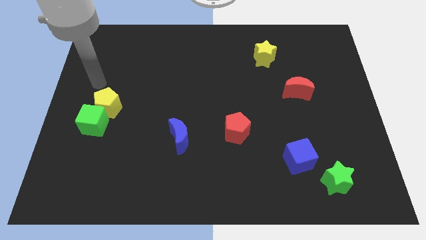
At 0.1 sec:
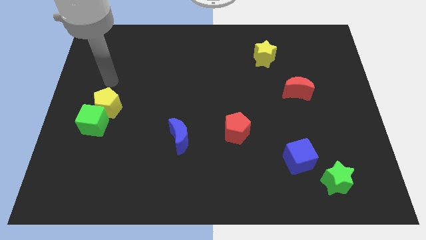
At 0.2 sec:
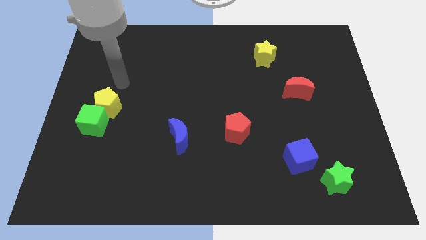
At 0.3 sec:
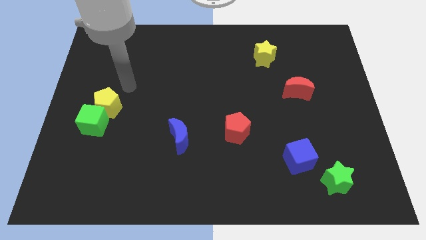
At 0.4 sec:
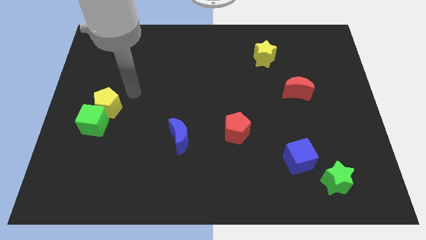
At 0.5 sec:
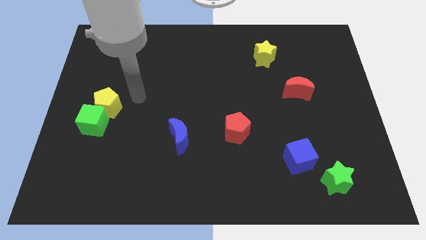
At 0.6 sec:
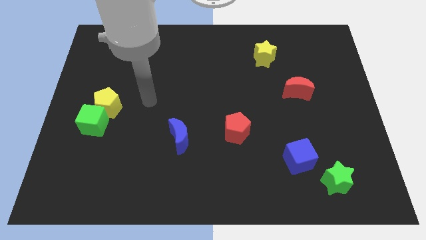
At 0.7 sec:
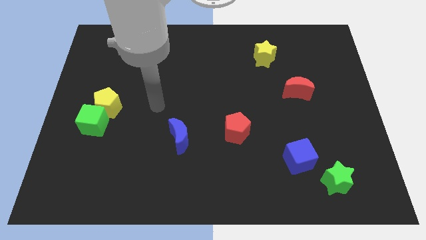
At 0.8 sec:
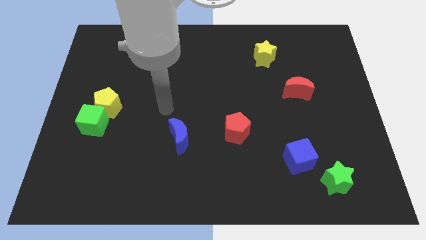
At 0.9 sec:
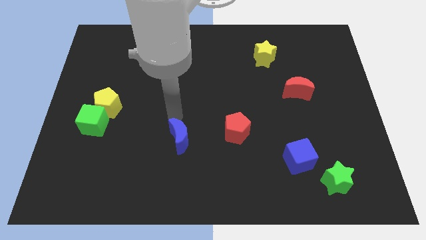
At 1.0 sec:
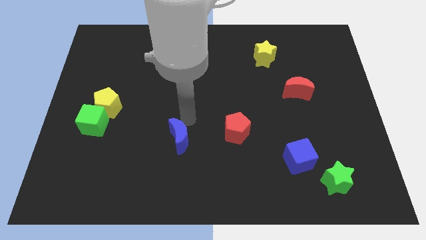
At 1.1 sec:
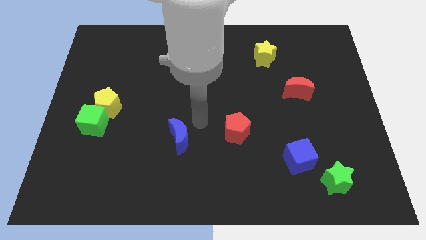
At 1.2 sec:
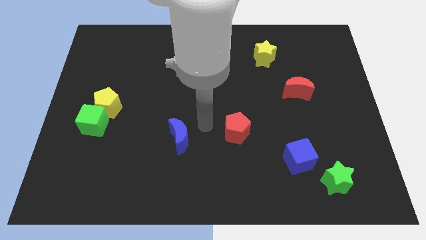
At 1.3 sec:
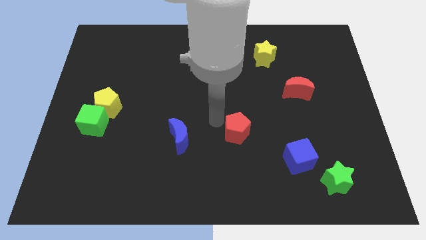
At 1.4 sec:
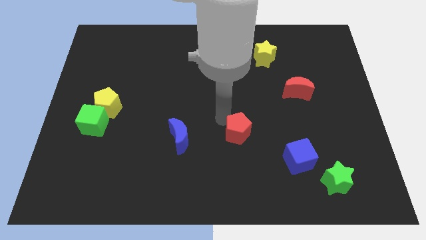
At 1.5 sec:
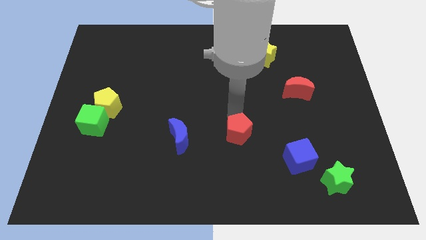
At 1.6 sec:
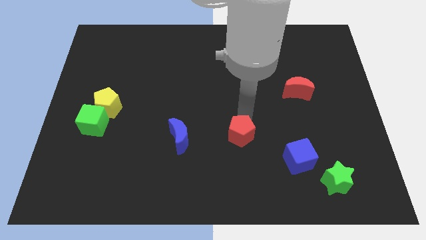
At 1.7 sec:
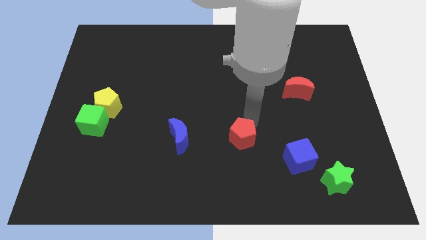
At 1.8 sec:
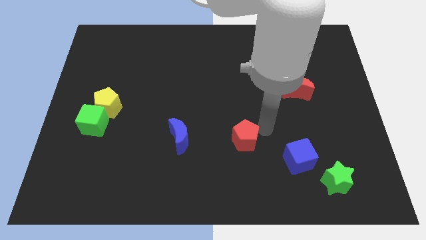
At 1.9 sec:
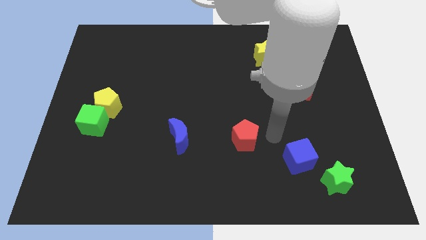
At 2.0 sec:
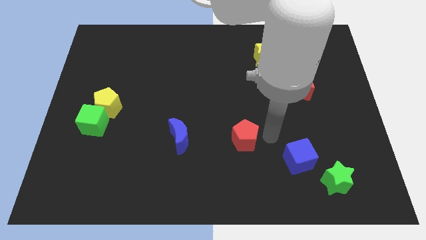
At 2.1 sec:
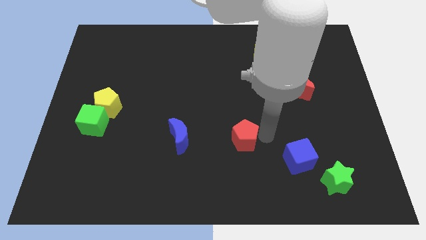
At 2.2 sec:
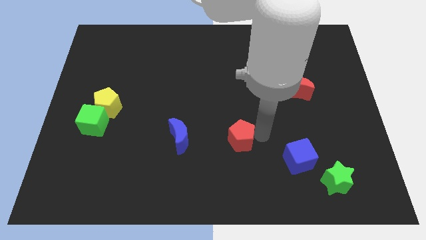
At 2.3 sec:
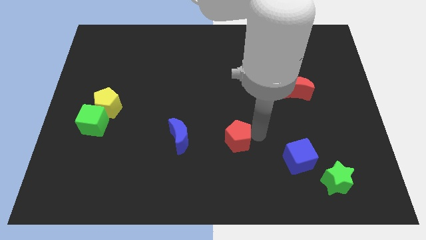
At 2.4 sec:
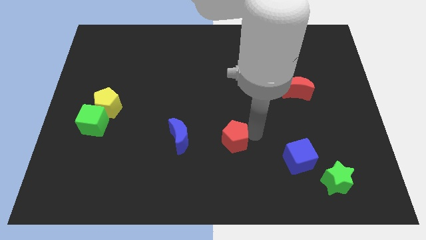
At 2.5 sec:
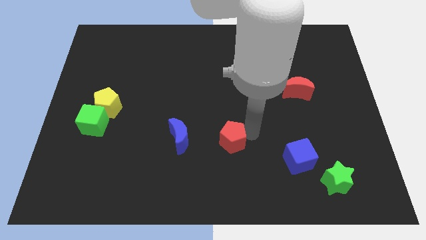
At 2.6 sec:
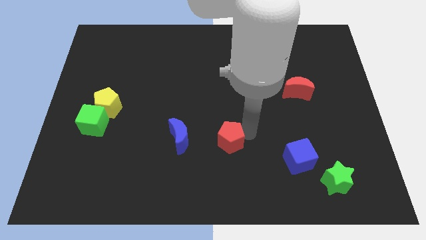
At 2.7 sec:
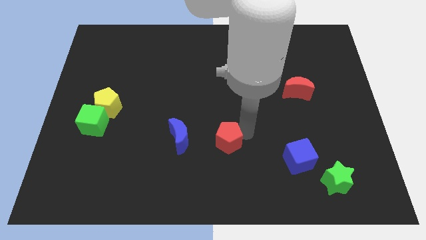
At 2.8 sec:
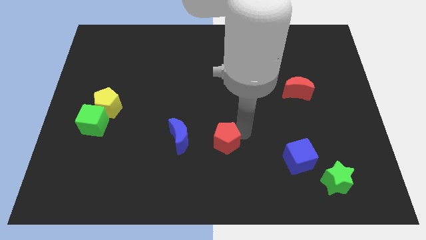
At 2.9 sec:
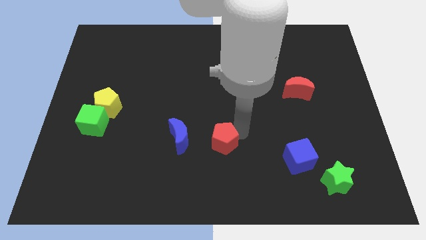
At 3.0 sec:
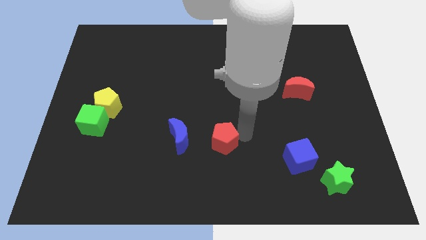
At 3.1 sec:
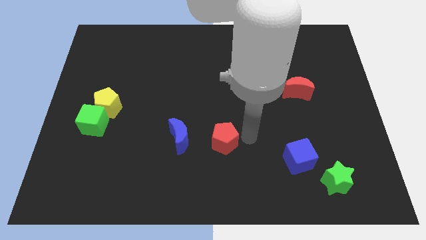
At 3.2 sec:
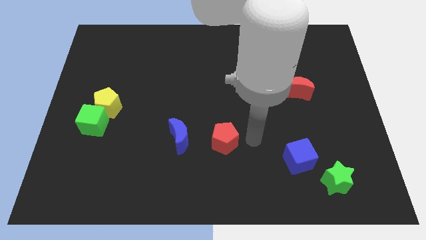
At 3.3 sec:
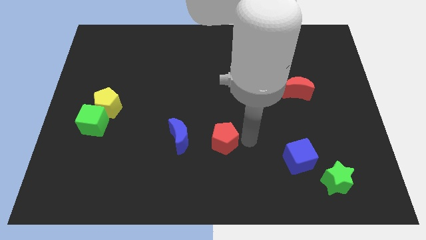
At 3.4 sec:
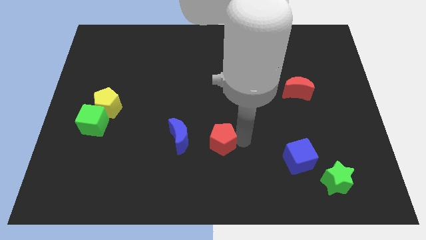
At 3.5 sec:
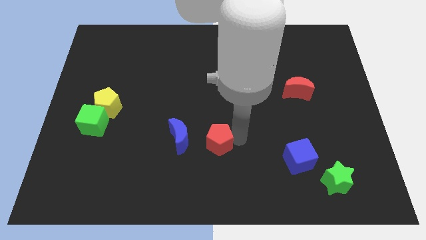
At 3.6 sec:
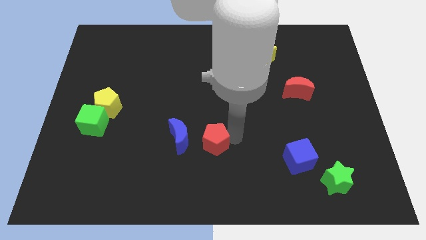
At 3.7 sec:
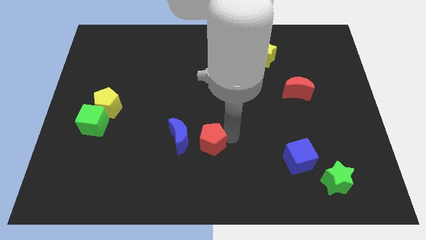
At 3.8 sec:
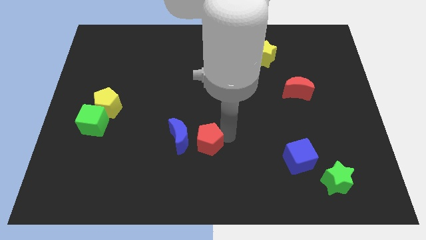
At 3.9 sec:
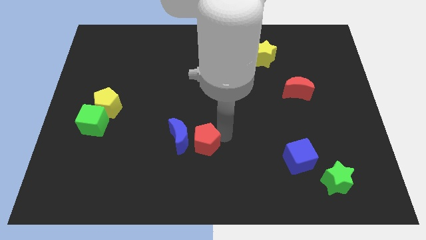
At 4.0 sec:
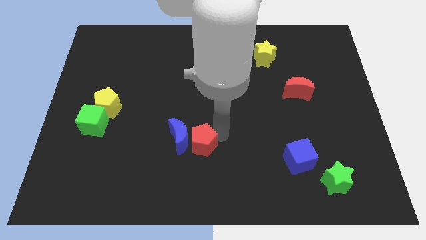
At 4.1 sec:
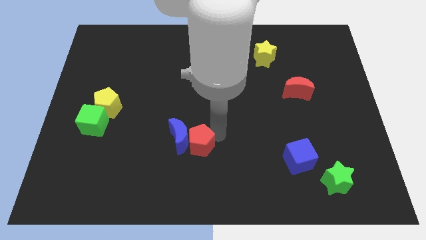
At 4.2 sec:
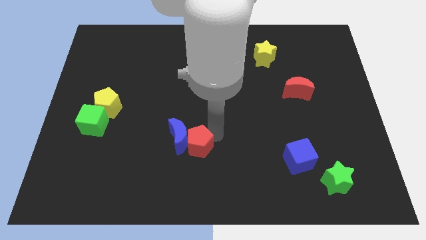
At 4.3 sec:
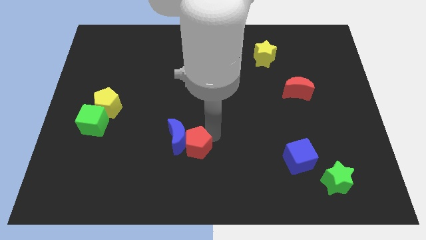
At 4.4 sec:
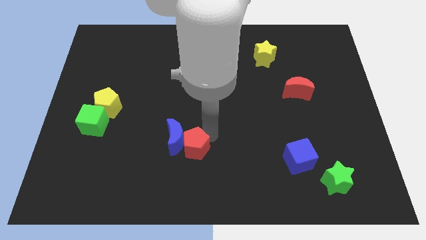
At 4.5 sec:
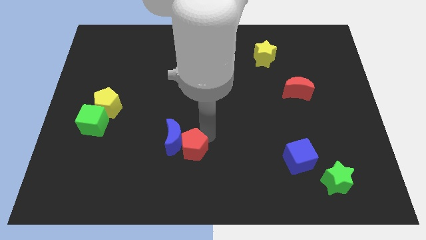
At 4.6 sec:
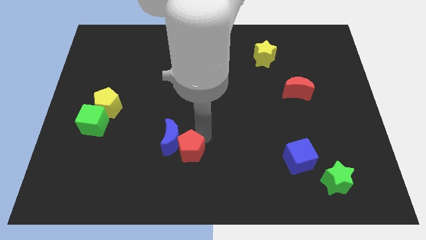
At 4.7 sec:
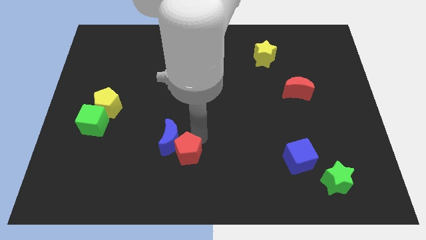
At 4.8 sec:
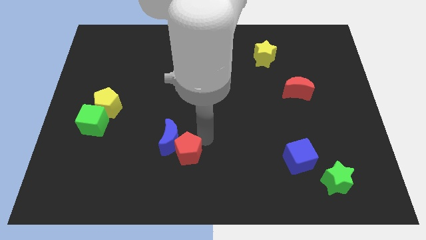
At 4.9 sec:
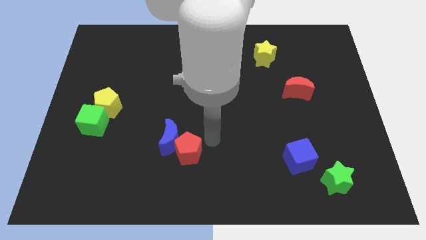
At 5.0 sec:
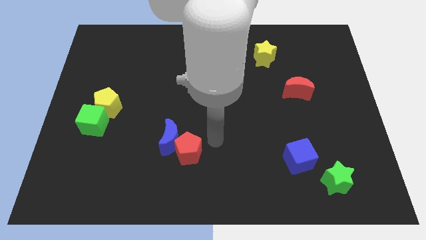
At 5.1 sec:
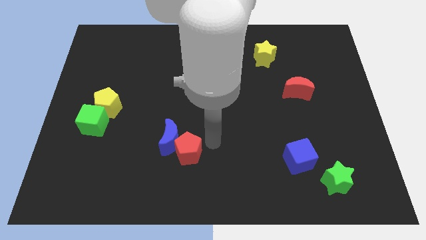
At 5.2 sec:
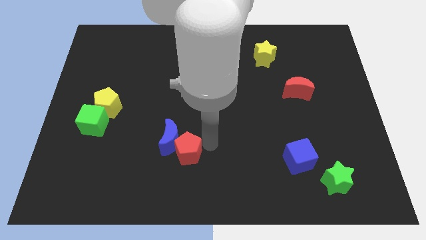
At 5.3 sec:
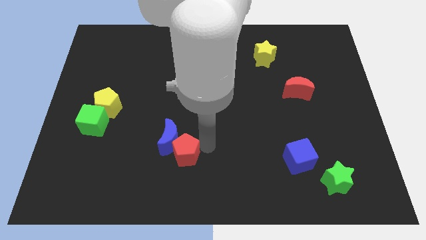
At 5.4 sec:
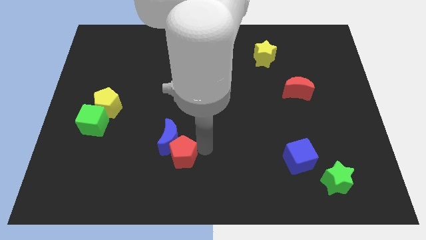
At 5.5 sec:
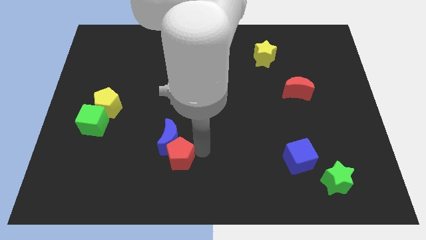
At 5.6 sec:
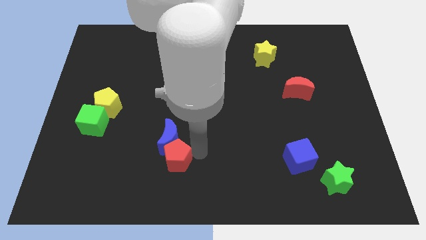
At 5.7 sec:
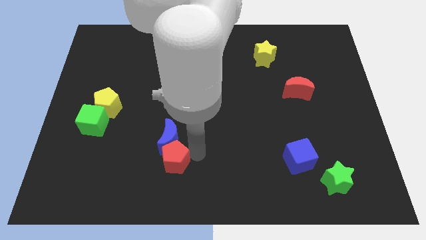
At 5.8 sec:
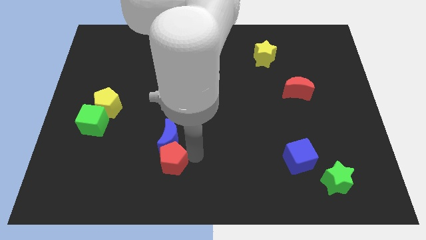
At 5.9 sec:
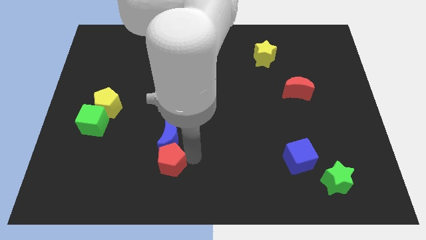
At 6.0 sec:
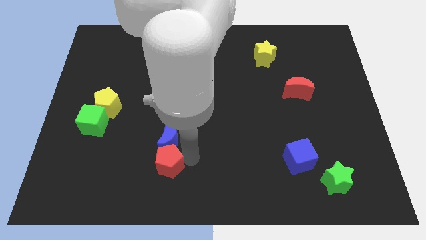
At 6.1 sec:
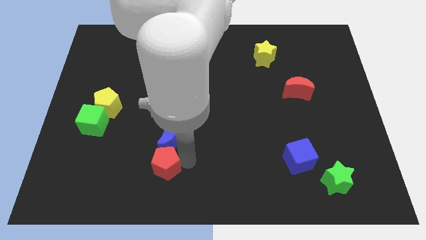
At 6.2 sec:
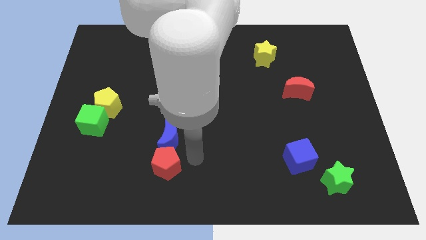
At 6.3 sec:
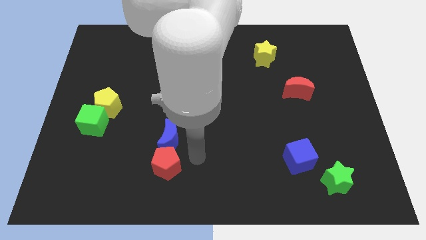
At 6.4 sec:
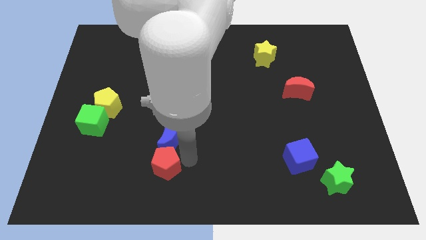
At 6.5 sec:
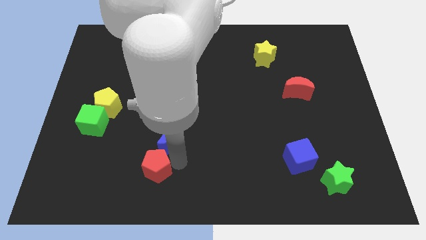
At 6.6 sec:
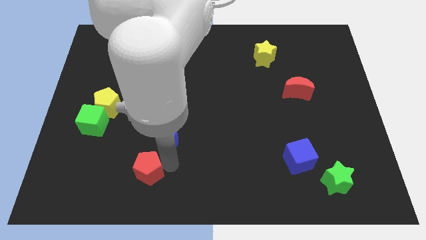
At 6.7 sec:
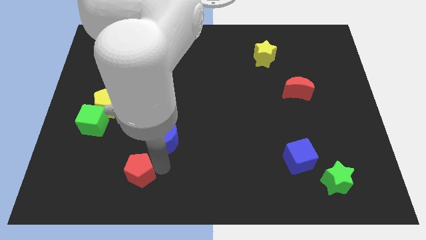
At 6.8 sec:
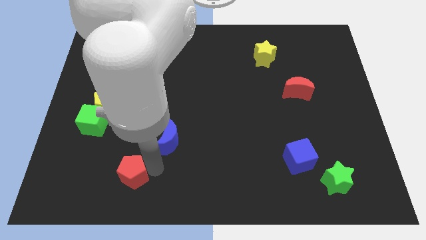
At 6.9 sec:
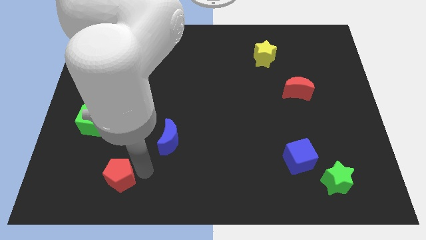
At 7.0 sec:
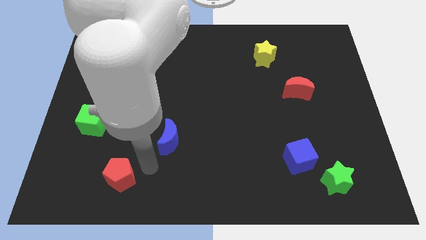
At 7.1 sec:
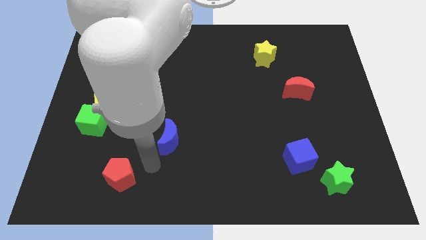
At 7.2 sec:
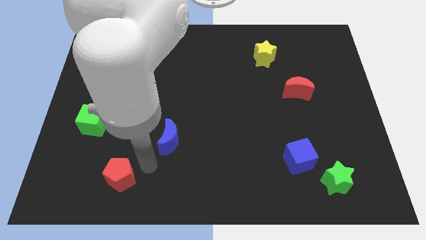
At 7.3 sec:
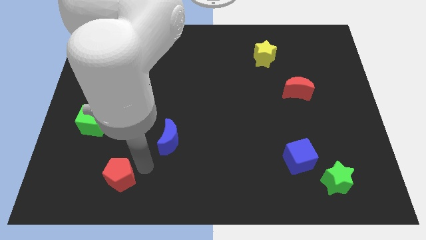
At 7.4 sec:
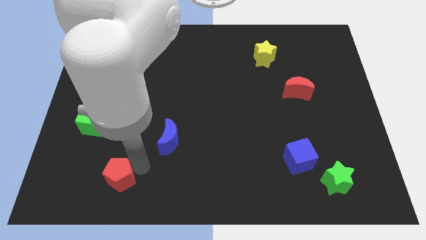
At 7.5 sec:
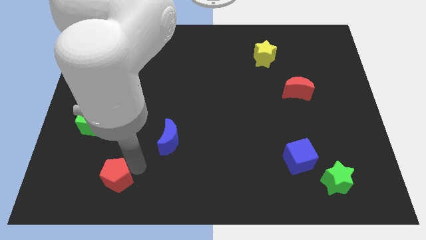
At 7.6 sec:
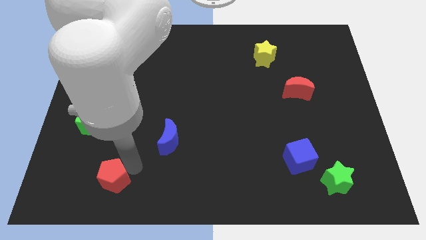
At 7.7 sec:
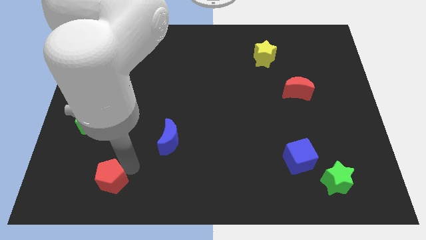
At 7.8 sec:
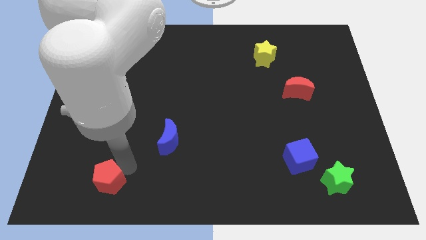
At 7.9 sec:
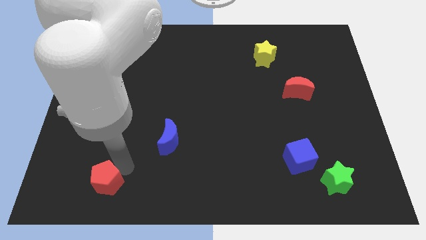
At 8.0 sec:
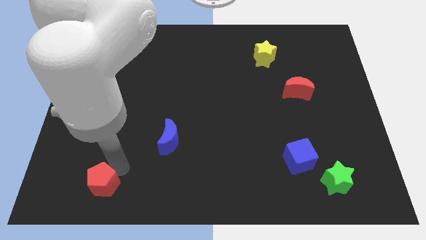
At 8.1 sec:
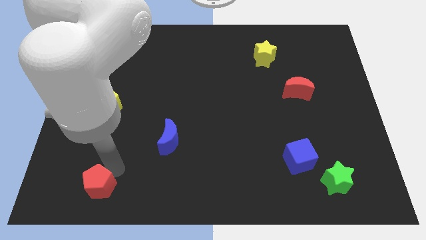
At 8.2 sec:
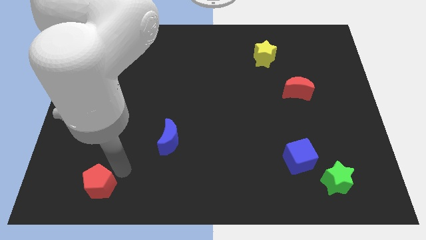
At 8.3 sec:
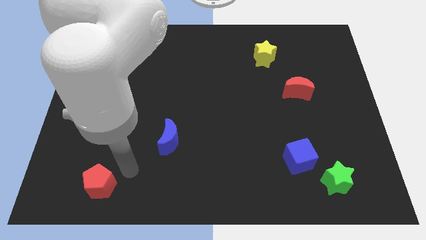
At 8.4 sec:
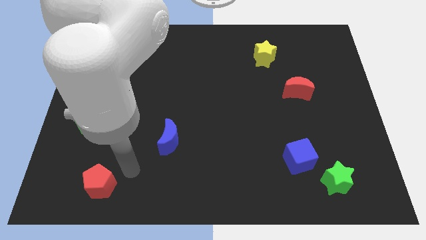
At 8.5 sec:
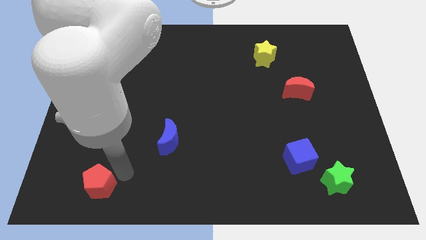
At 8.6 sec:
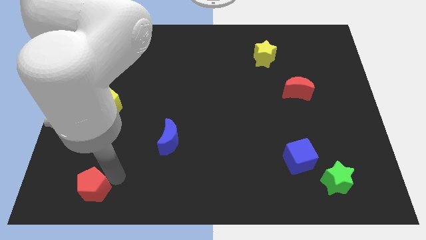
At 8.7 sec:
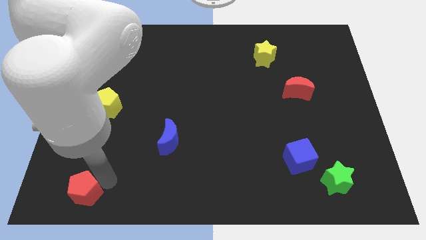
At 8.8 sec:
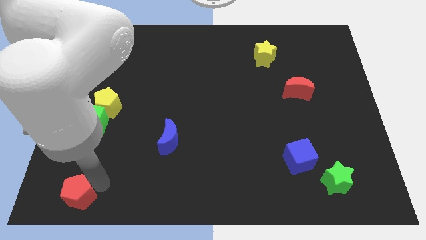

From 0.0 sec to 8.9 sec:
move the red pentagon to the bottom left of the board
